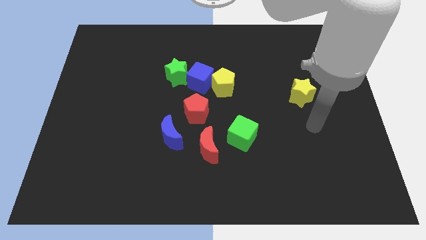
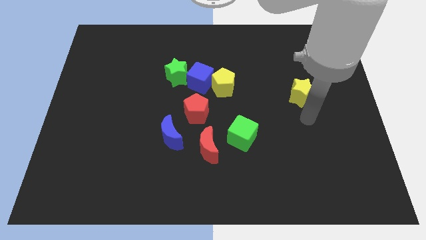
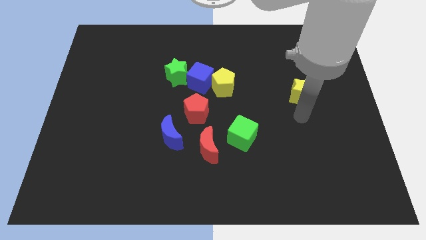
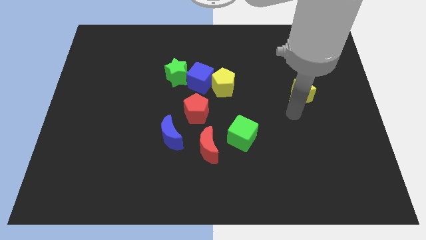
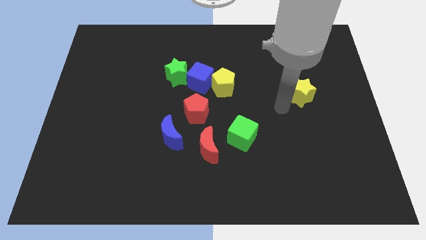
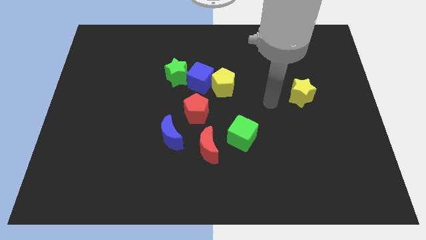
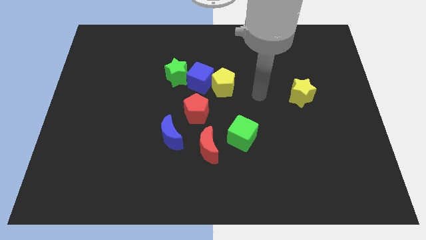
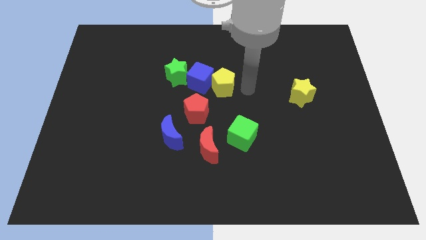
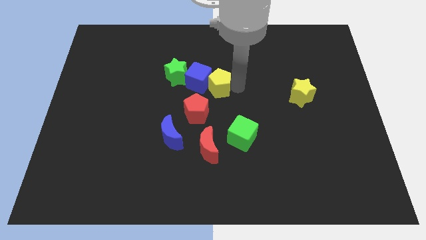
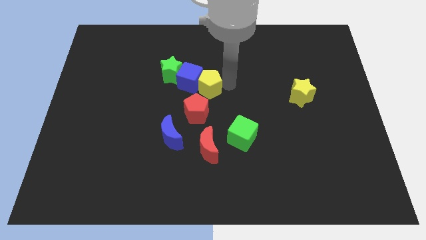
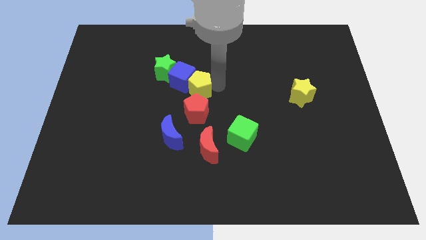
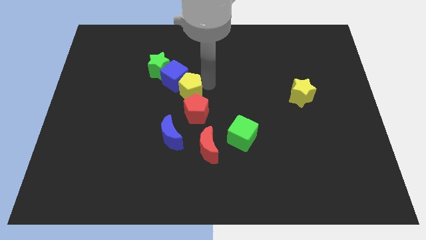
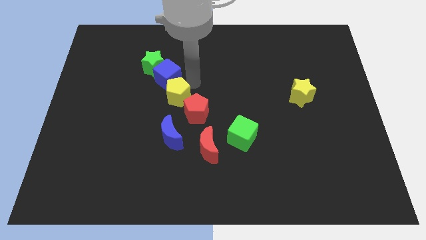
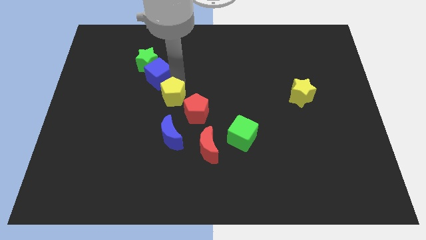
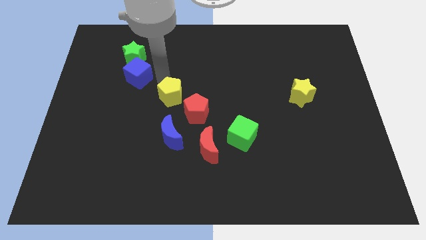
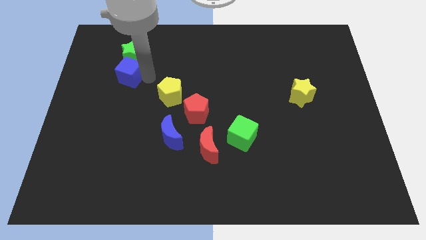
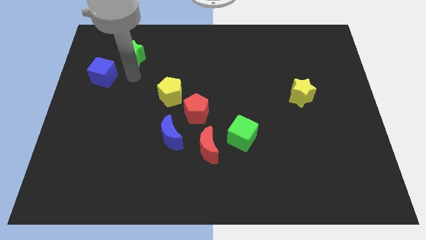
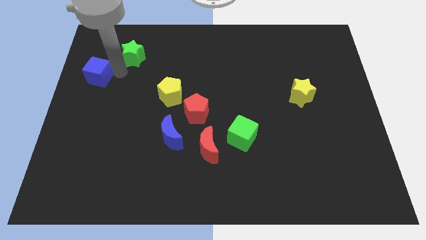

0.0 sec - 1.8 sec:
separate the green star from the blue cube

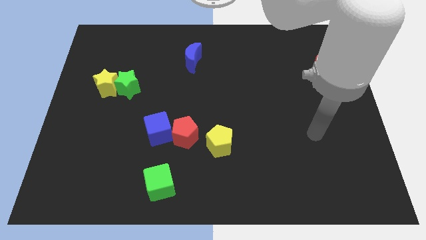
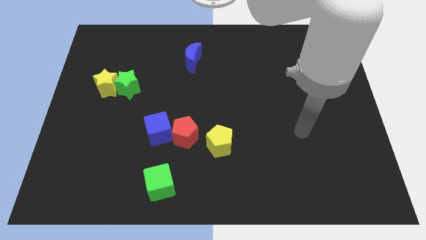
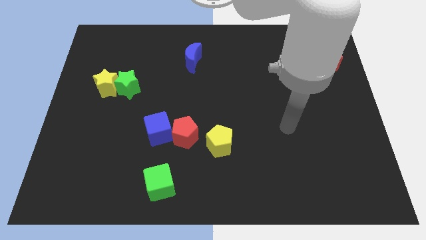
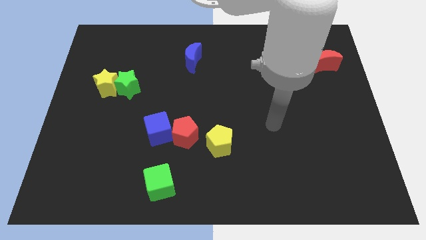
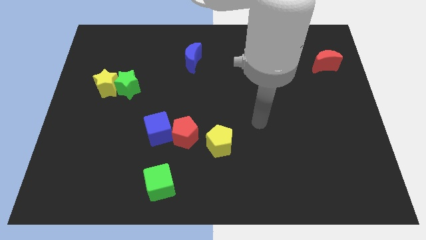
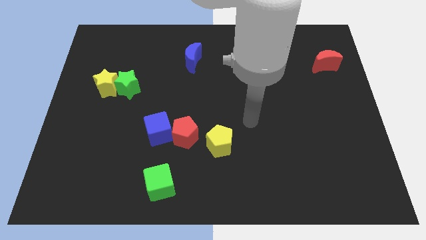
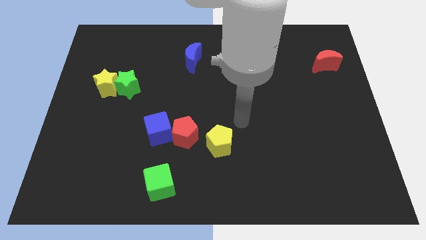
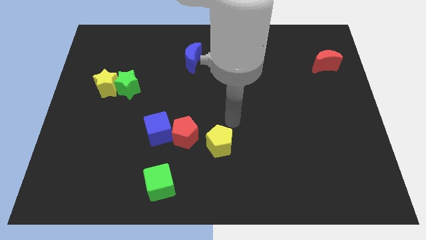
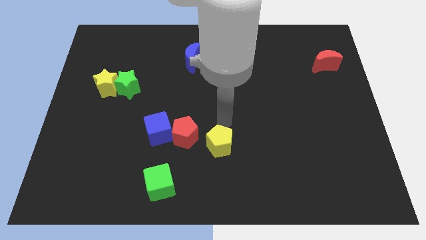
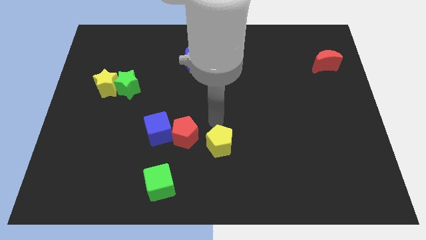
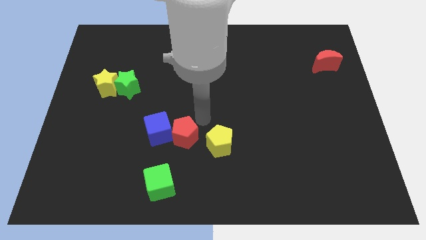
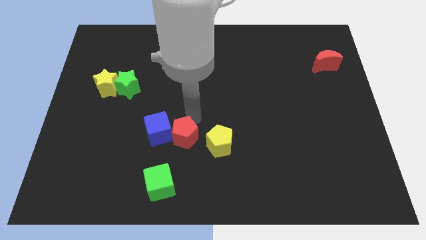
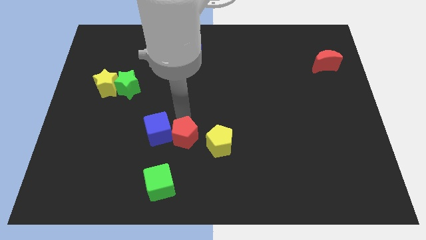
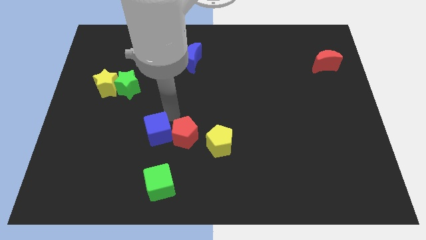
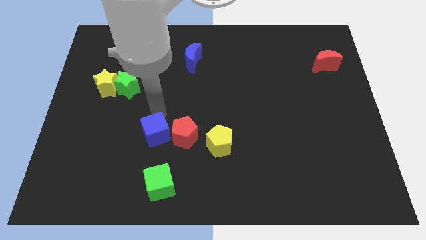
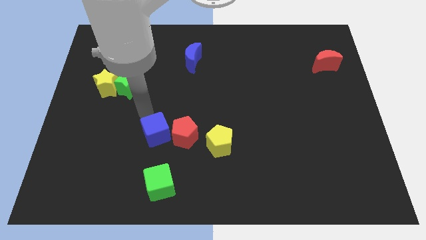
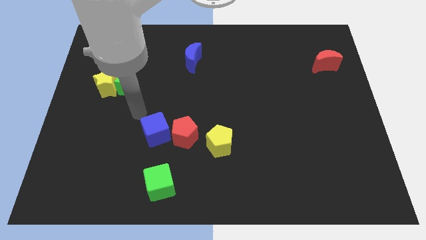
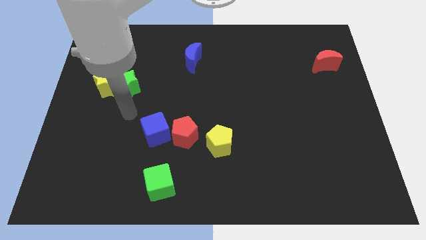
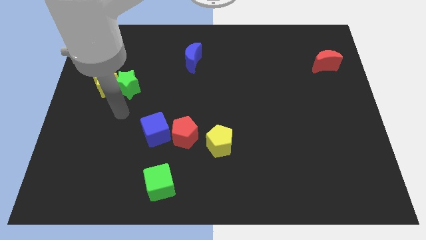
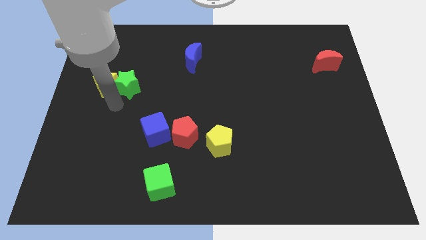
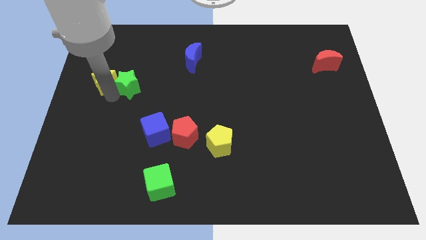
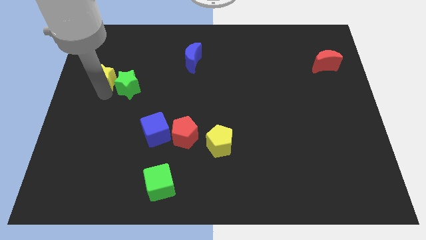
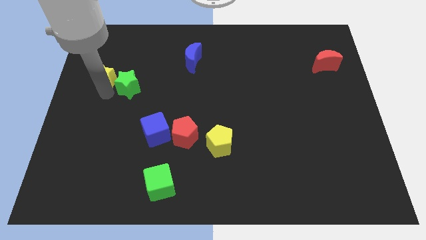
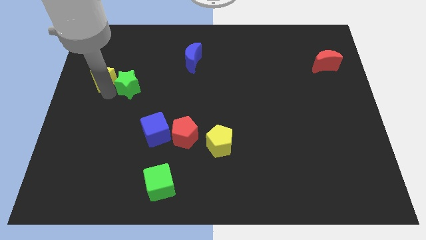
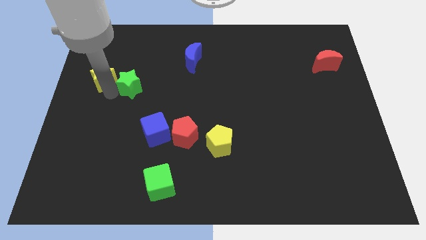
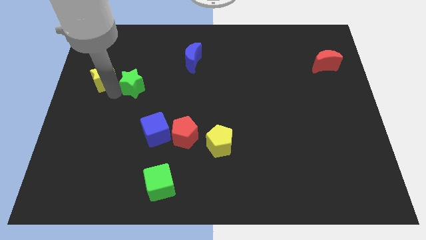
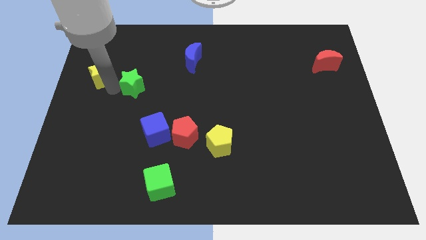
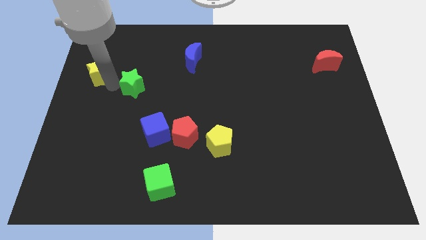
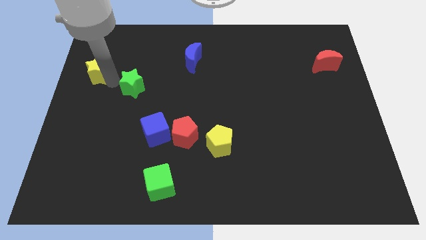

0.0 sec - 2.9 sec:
move the green star away from the yellow star

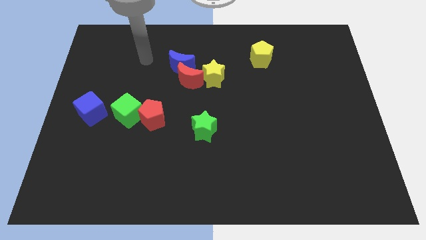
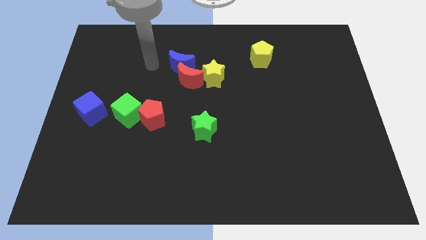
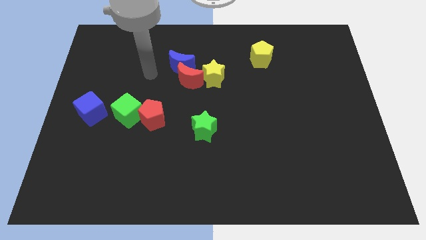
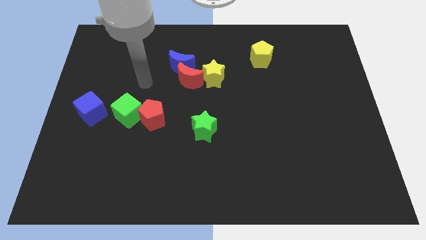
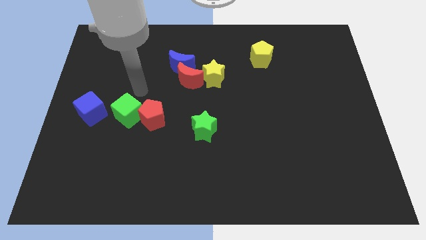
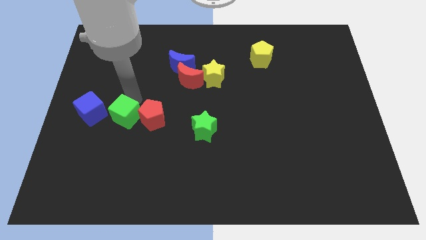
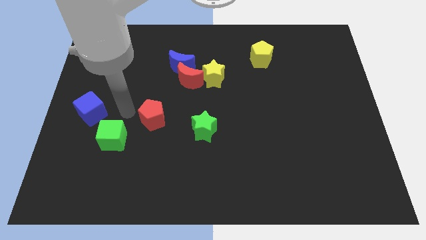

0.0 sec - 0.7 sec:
separate the red pentagon from the green cube

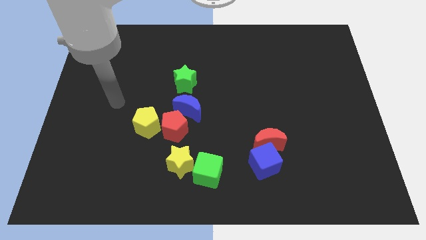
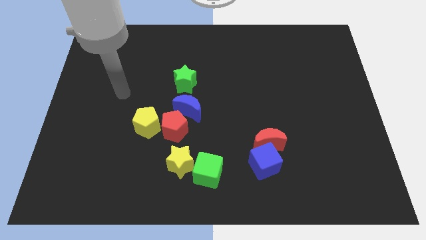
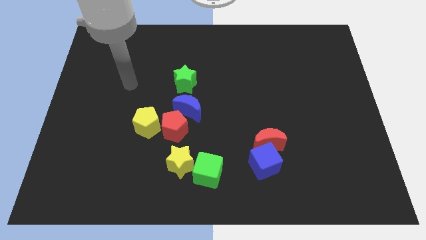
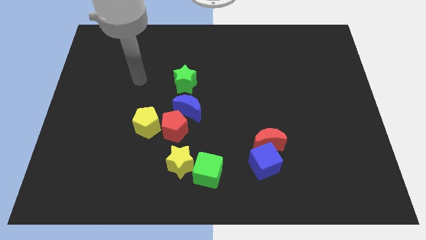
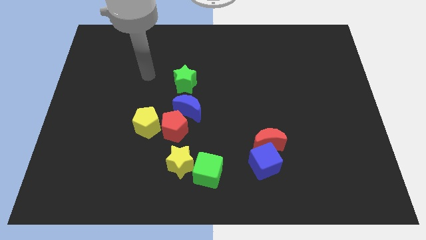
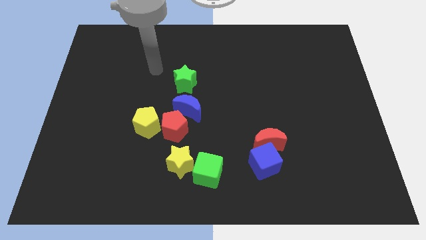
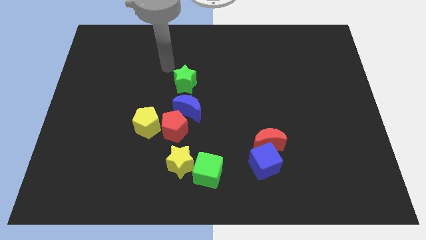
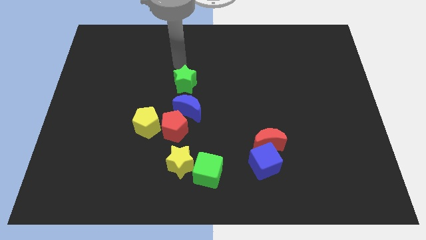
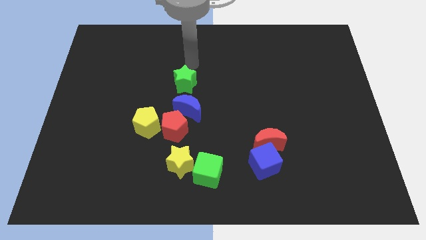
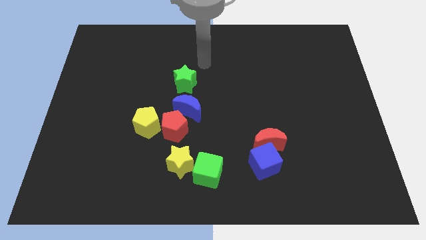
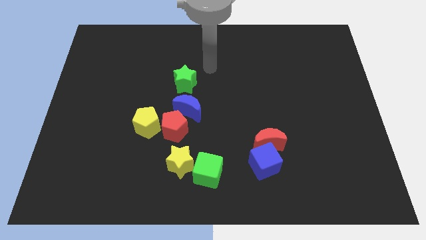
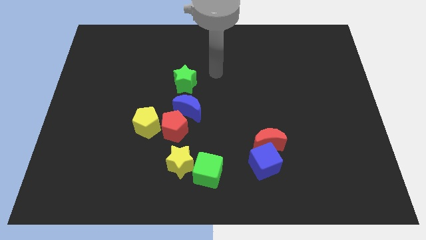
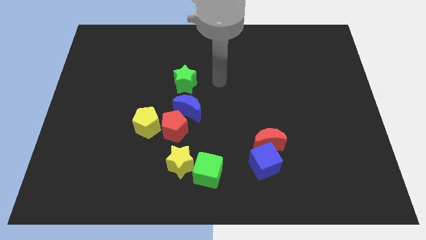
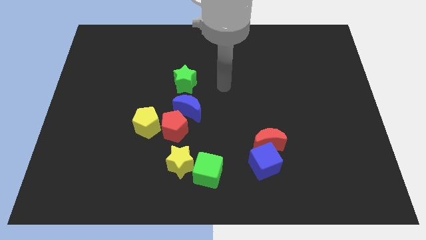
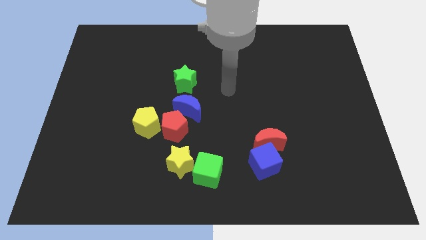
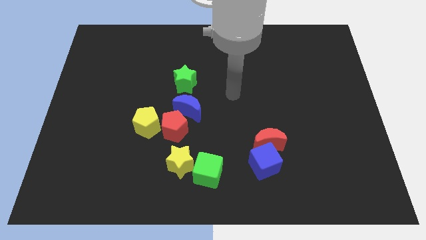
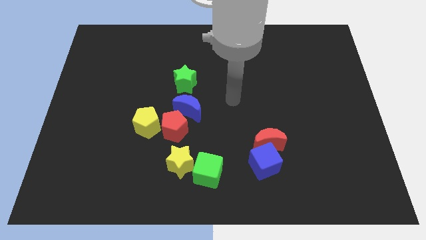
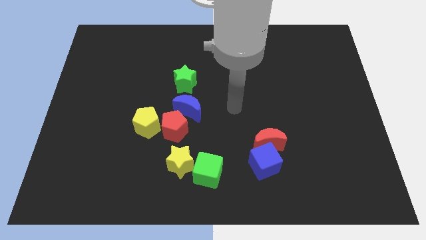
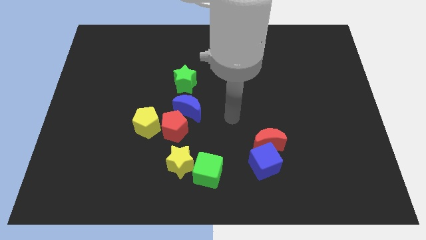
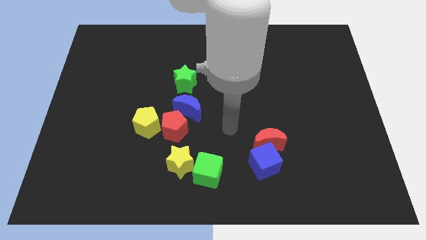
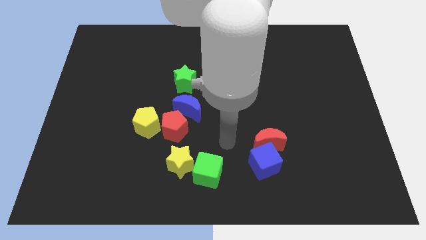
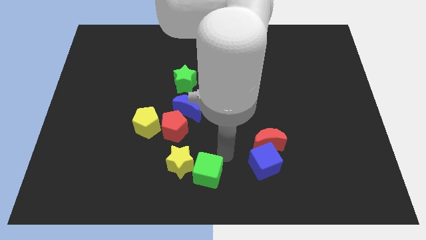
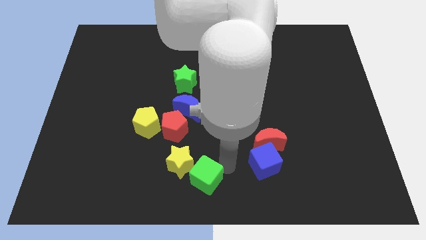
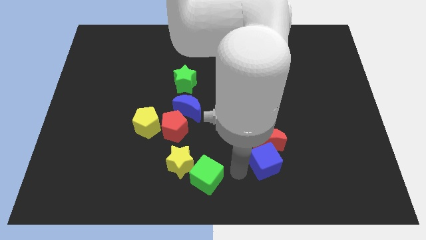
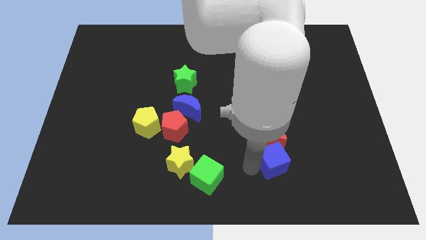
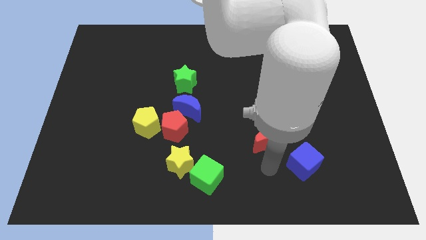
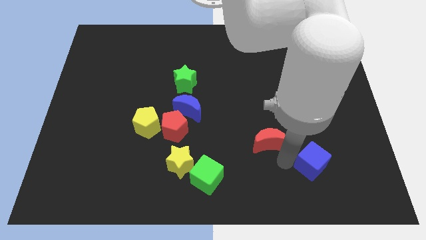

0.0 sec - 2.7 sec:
pull the red moon apart from the blue cube

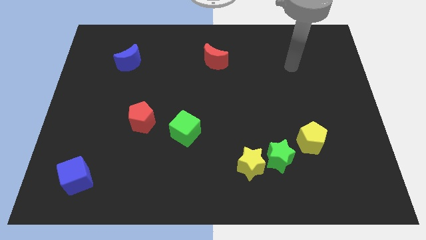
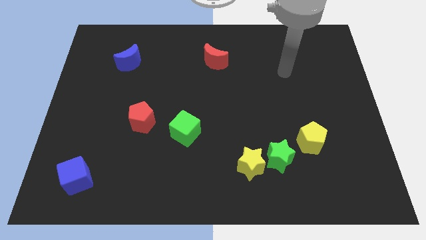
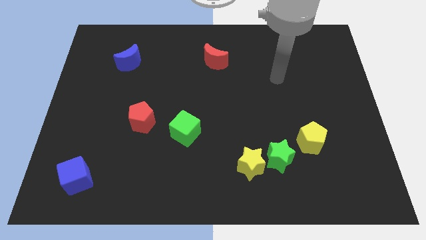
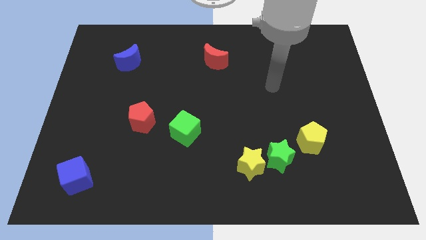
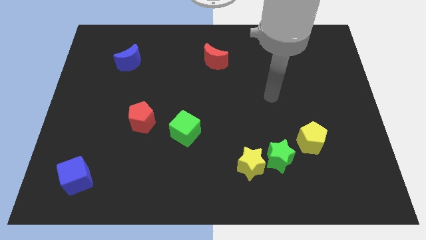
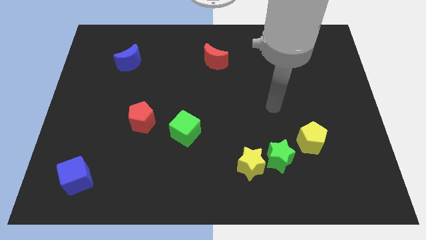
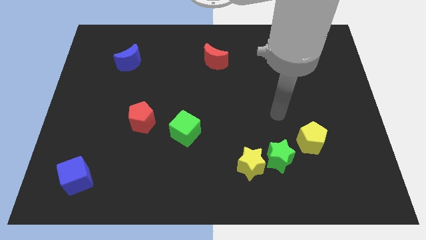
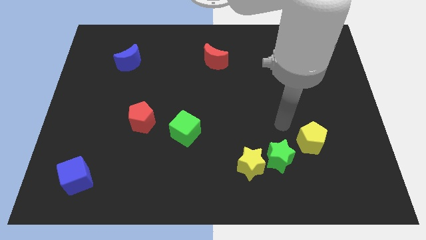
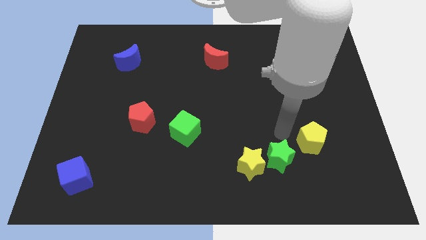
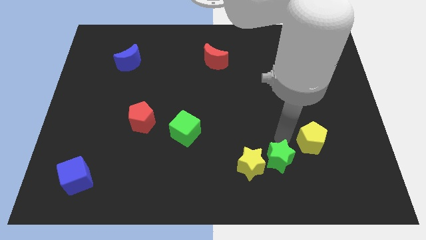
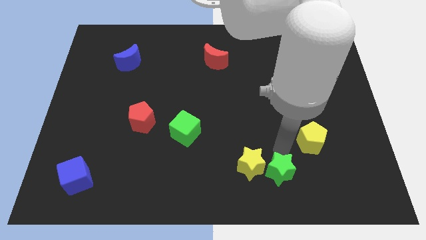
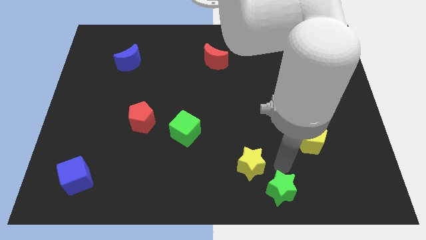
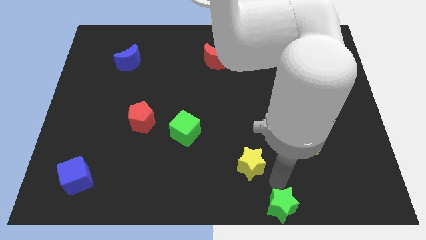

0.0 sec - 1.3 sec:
pull the yellow star apart from the green star
